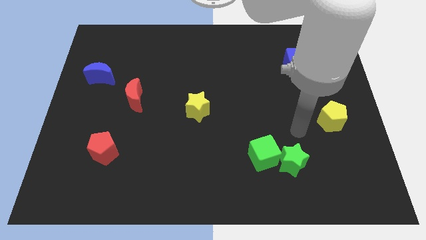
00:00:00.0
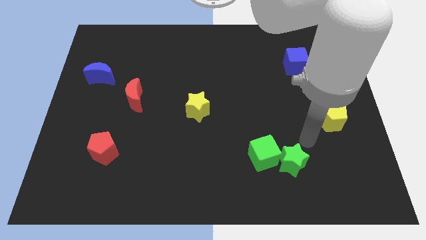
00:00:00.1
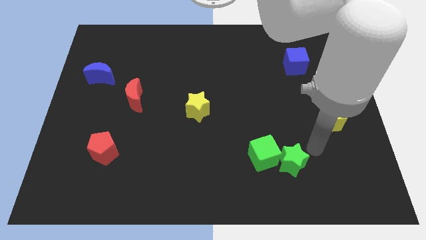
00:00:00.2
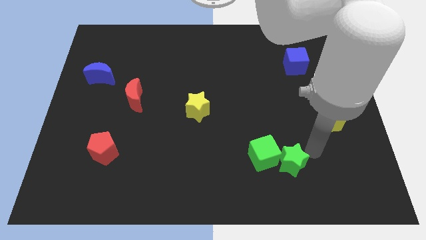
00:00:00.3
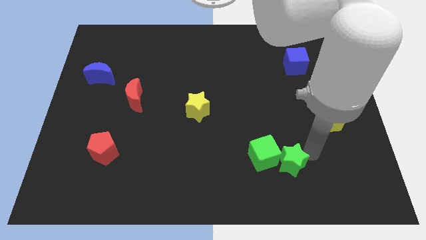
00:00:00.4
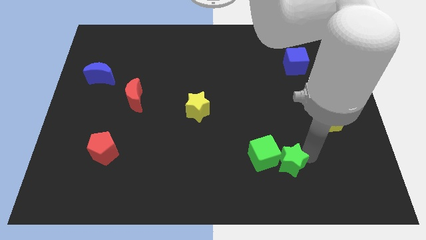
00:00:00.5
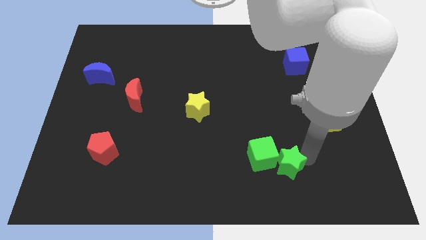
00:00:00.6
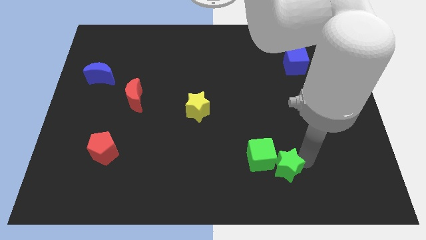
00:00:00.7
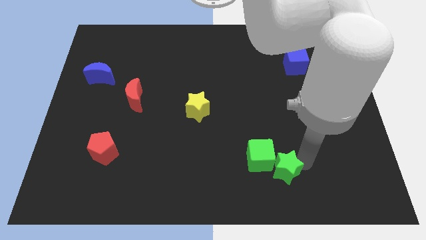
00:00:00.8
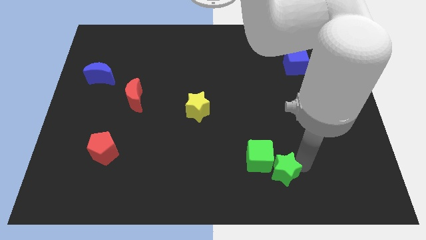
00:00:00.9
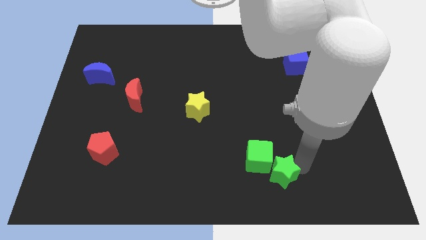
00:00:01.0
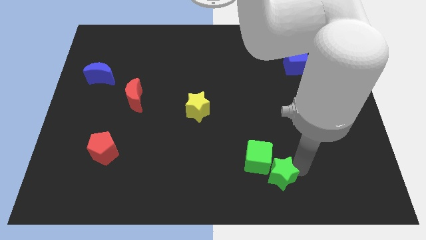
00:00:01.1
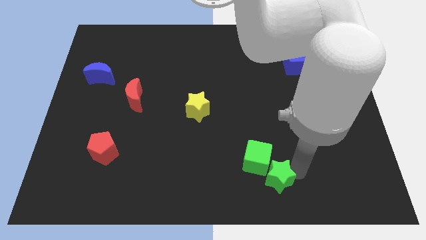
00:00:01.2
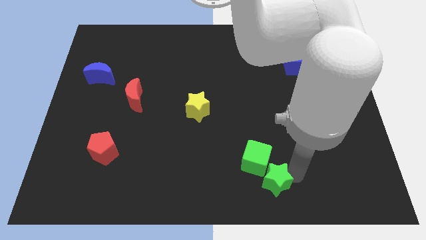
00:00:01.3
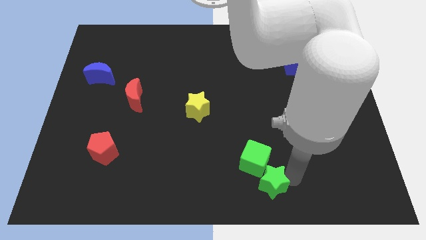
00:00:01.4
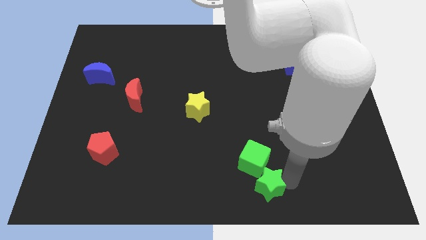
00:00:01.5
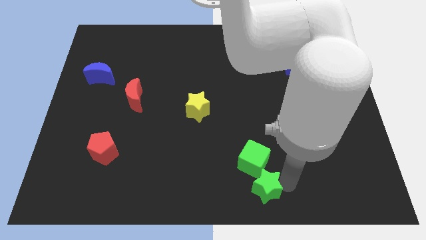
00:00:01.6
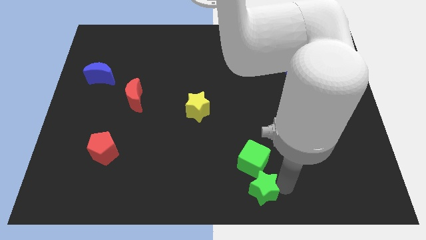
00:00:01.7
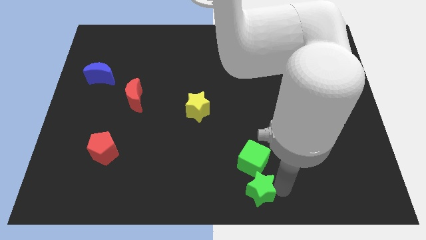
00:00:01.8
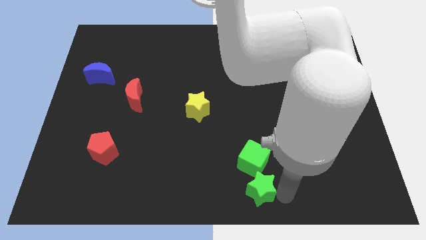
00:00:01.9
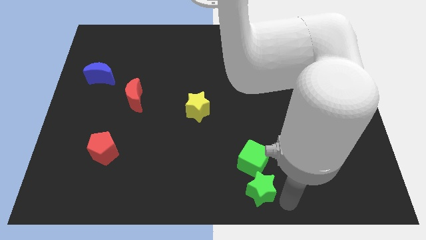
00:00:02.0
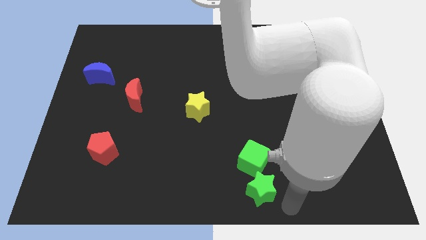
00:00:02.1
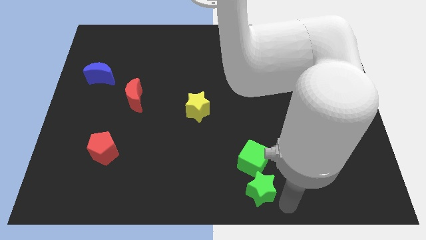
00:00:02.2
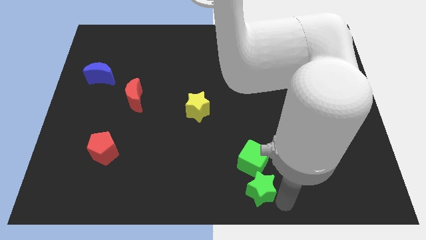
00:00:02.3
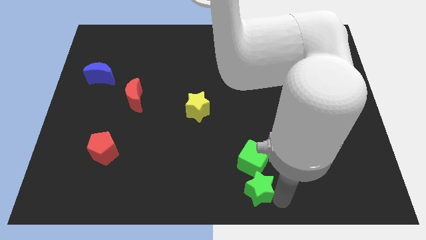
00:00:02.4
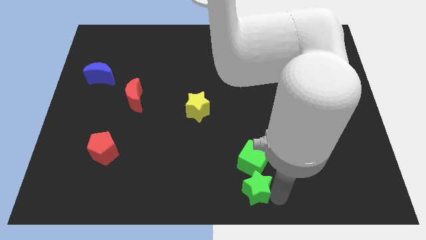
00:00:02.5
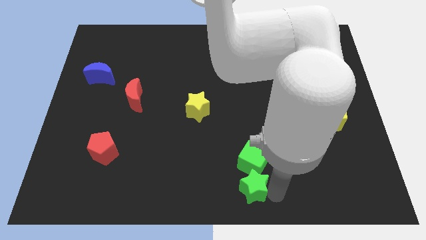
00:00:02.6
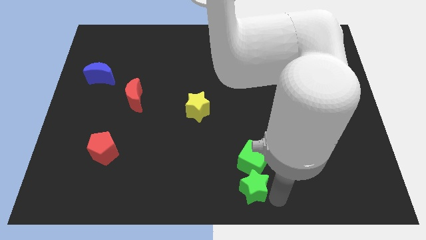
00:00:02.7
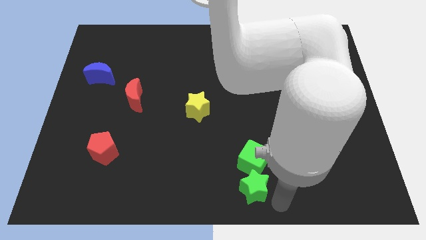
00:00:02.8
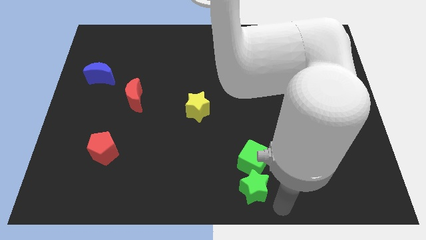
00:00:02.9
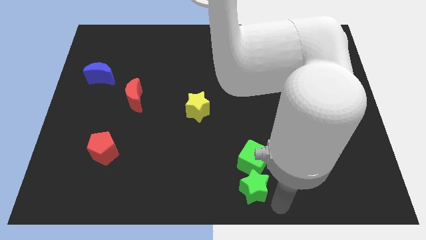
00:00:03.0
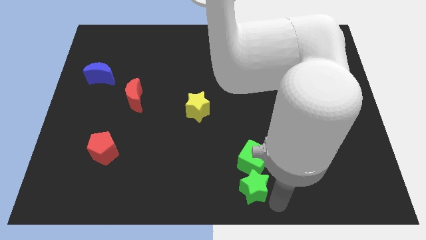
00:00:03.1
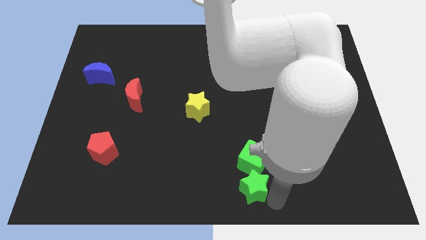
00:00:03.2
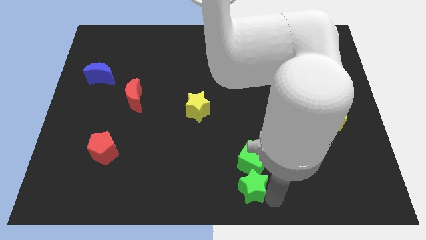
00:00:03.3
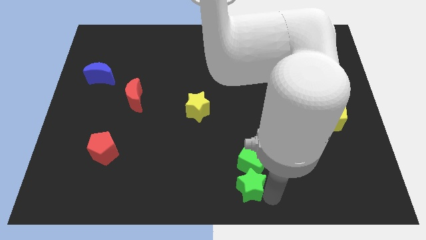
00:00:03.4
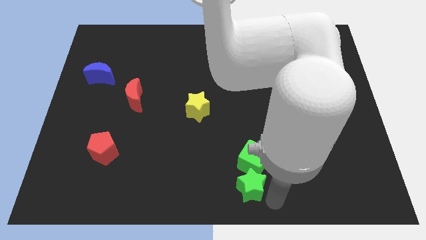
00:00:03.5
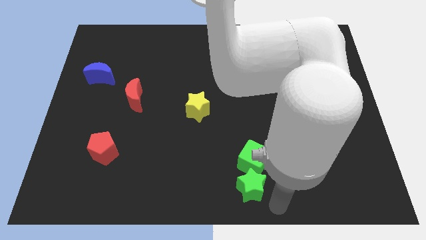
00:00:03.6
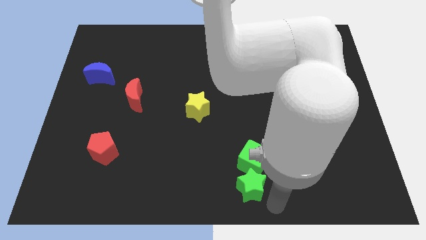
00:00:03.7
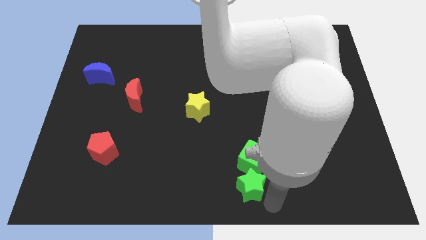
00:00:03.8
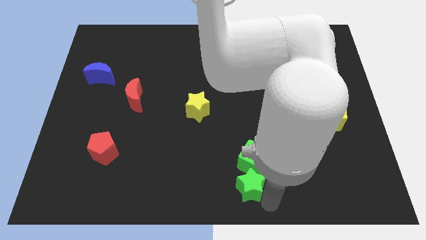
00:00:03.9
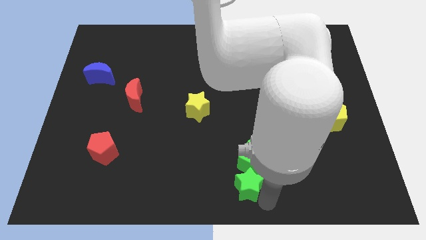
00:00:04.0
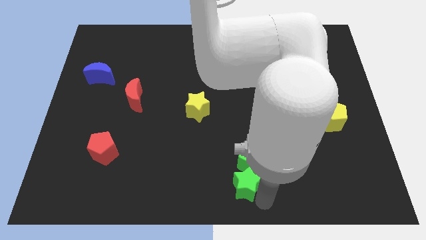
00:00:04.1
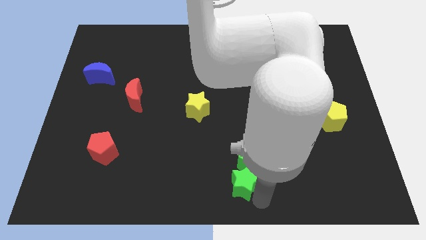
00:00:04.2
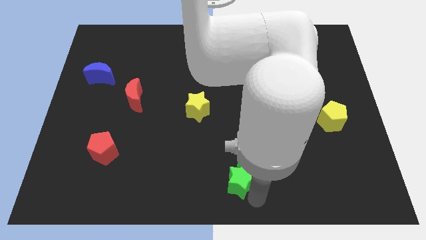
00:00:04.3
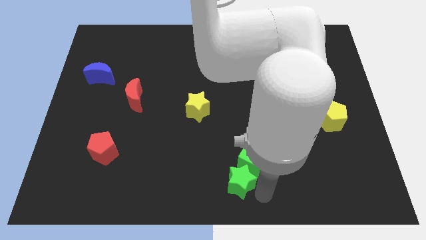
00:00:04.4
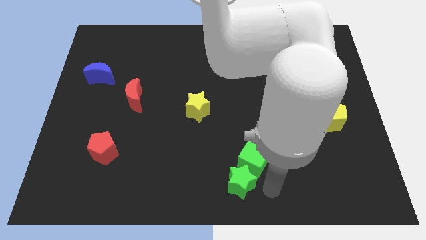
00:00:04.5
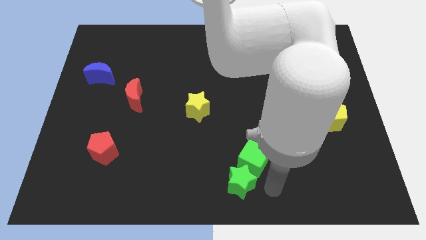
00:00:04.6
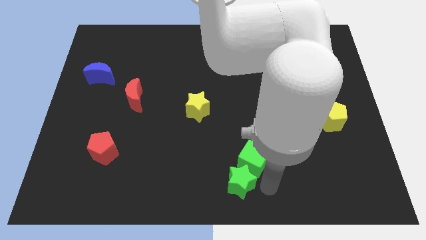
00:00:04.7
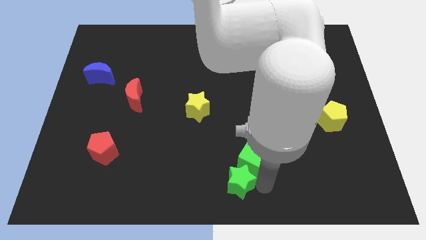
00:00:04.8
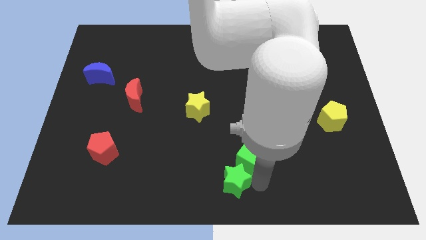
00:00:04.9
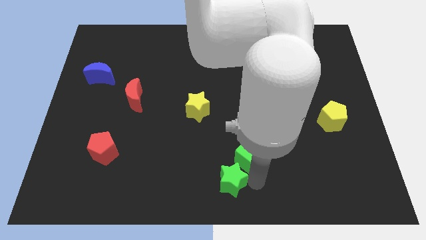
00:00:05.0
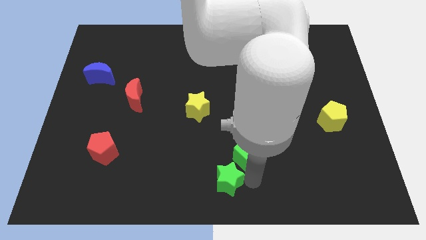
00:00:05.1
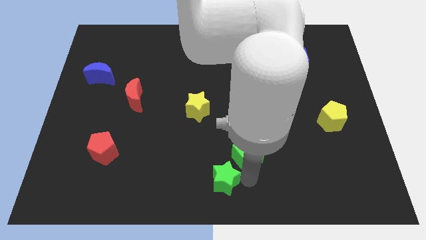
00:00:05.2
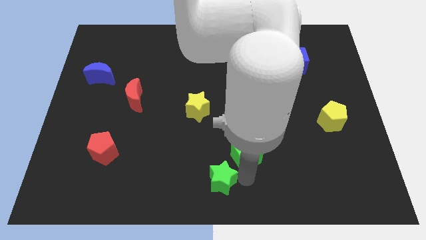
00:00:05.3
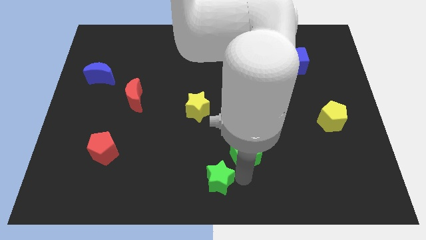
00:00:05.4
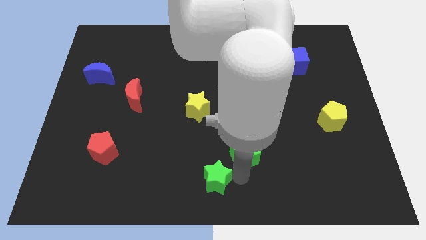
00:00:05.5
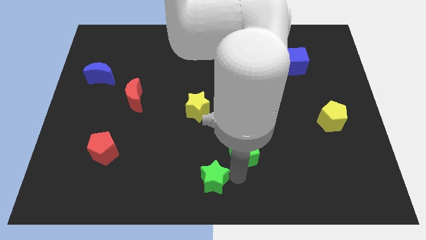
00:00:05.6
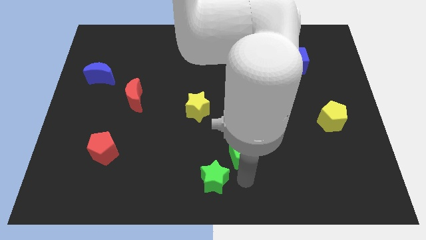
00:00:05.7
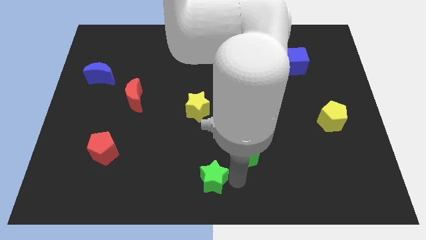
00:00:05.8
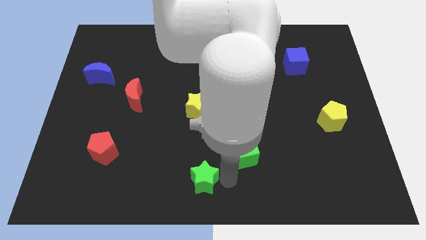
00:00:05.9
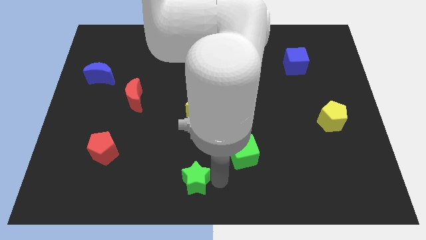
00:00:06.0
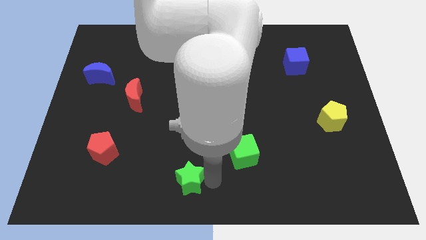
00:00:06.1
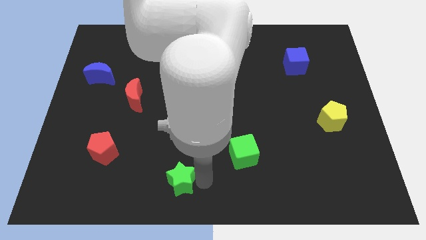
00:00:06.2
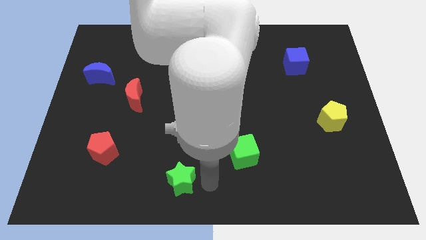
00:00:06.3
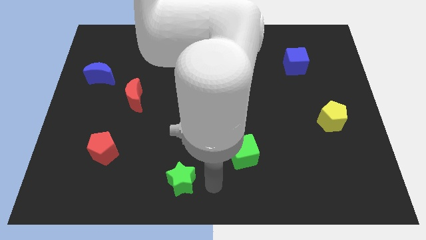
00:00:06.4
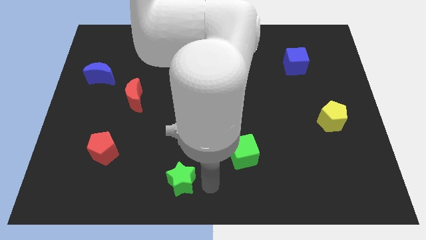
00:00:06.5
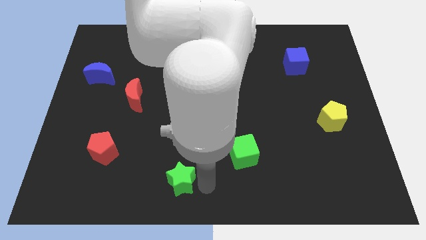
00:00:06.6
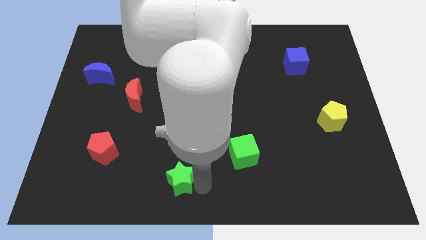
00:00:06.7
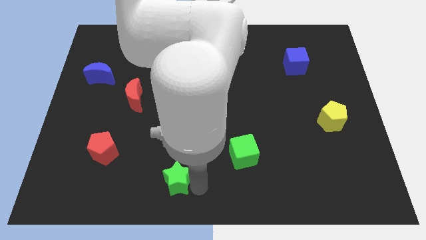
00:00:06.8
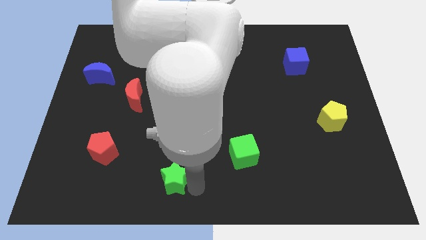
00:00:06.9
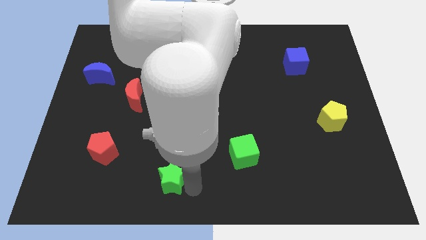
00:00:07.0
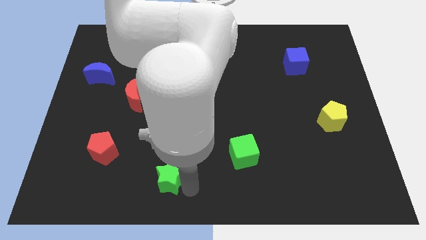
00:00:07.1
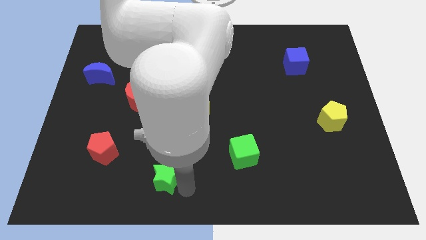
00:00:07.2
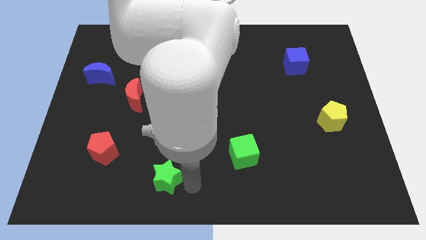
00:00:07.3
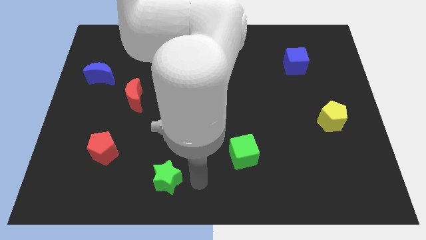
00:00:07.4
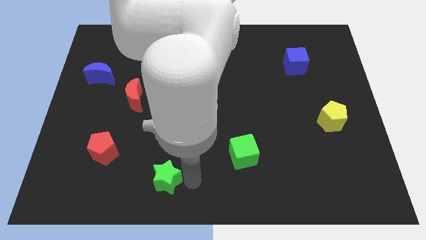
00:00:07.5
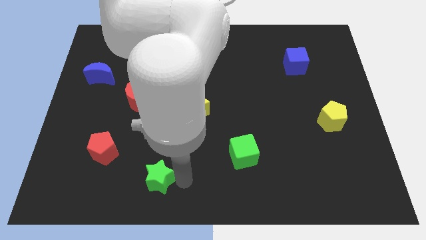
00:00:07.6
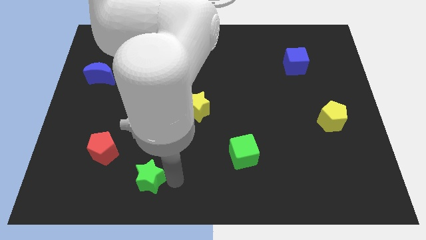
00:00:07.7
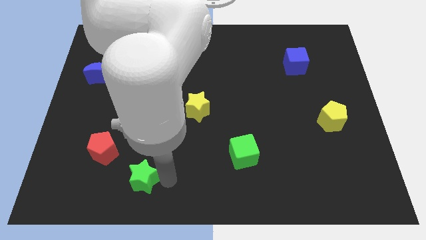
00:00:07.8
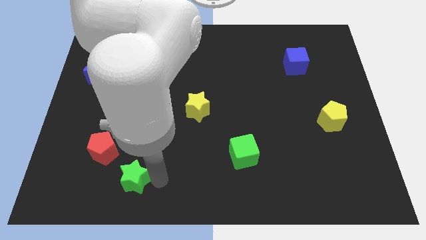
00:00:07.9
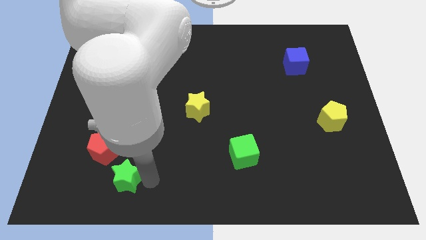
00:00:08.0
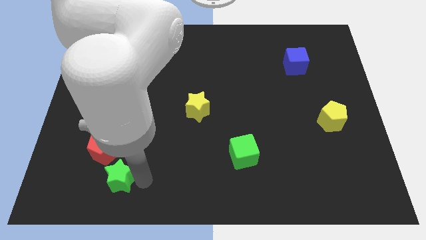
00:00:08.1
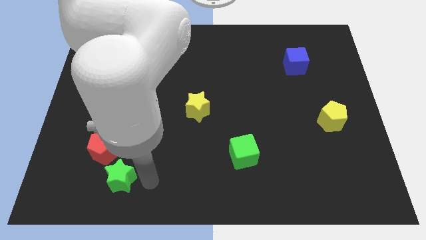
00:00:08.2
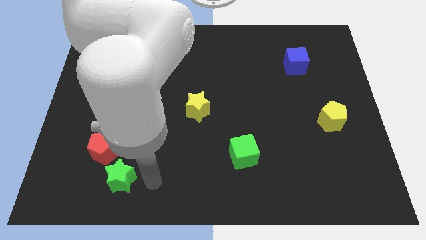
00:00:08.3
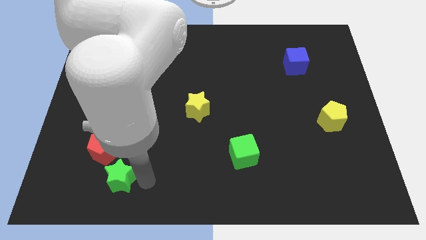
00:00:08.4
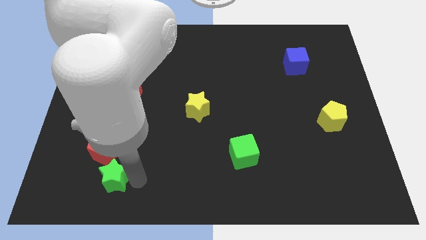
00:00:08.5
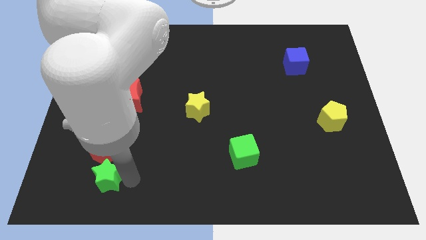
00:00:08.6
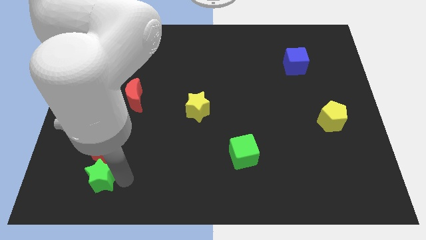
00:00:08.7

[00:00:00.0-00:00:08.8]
slide the green star diagonally down and to the left of the red pentagon
